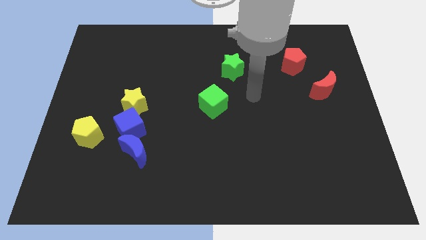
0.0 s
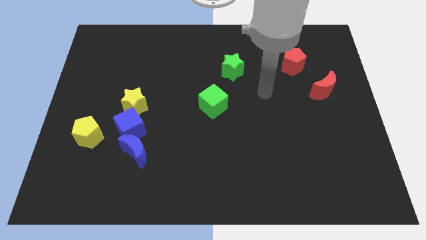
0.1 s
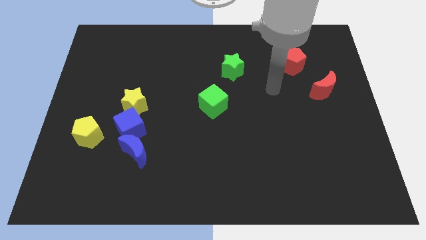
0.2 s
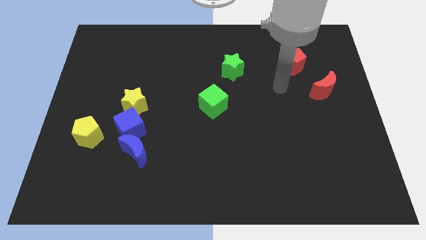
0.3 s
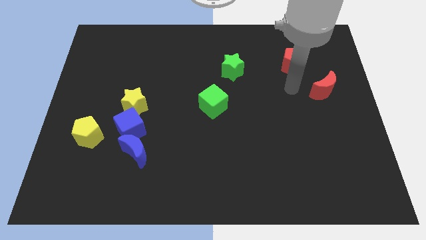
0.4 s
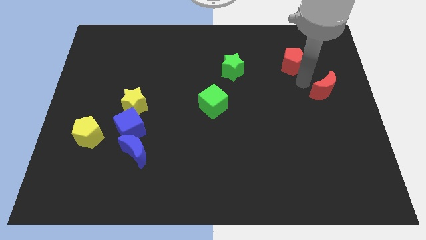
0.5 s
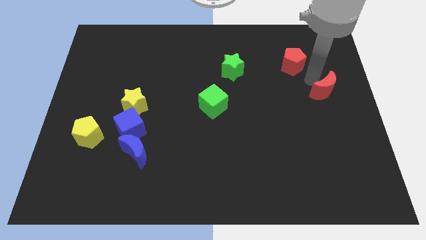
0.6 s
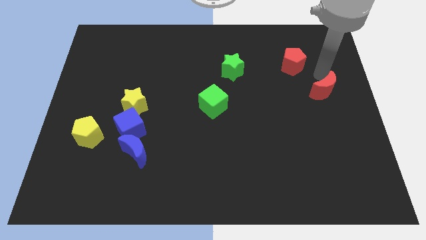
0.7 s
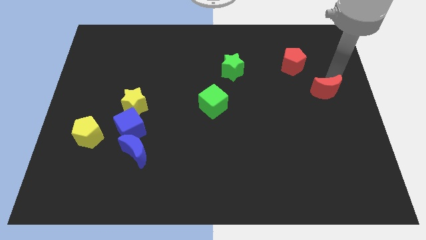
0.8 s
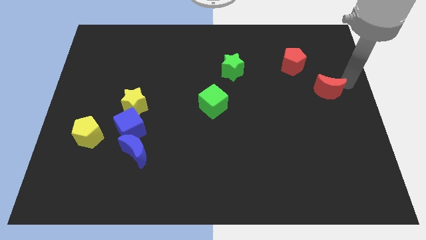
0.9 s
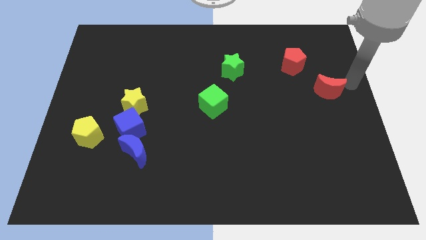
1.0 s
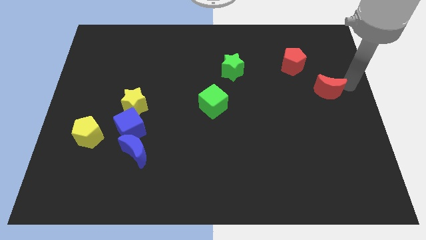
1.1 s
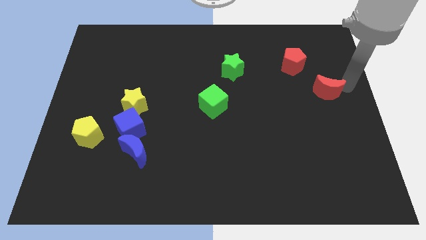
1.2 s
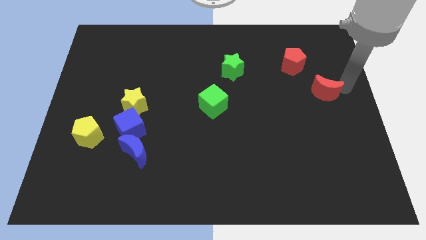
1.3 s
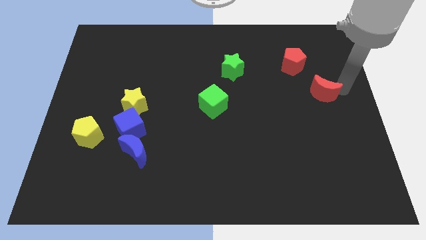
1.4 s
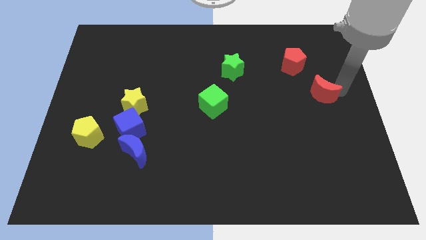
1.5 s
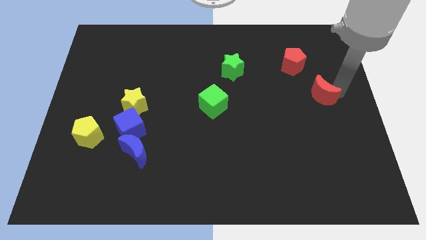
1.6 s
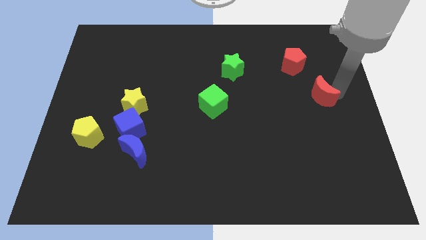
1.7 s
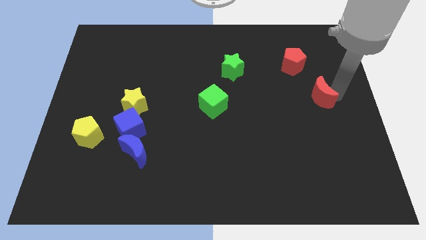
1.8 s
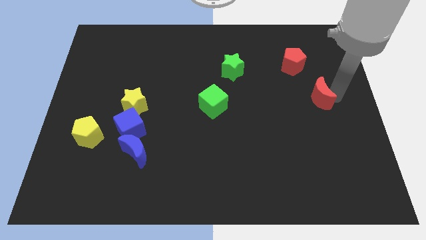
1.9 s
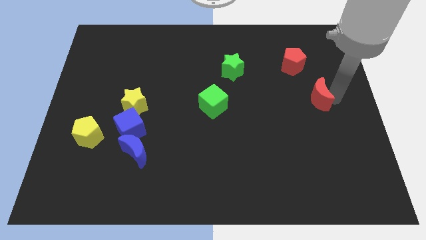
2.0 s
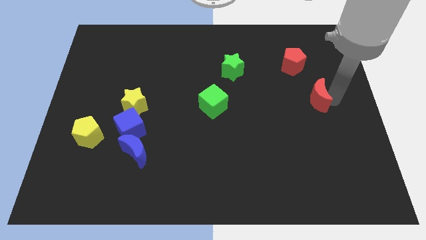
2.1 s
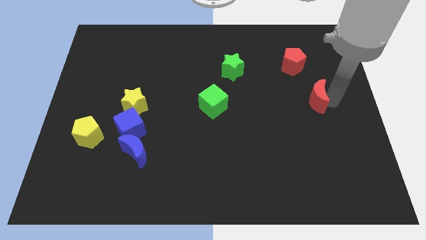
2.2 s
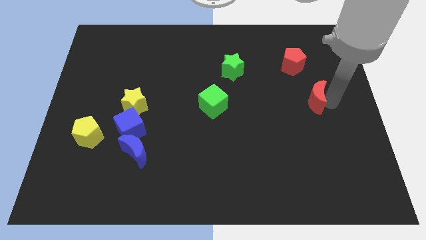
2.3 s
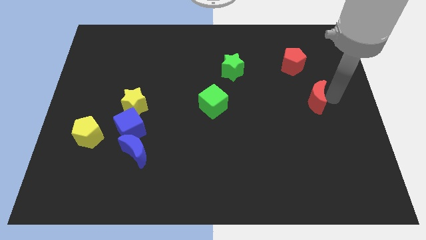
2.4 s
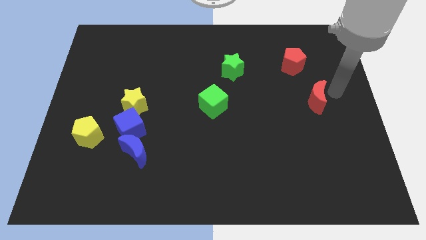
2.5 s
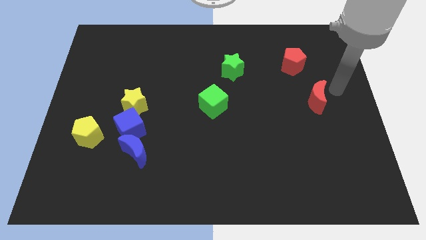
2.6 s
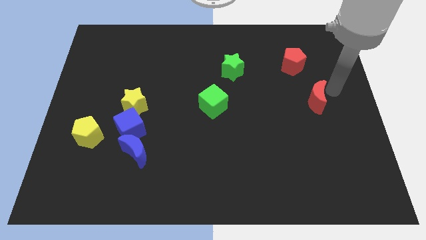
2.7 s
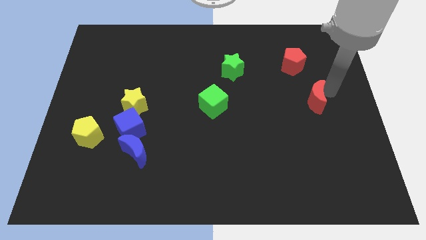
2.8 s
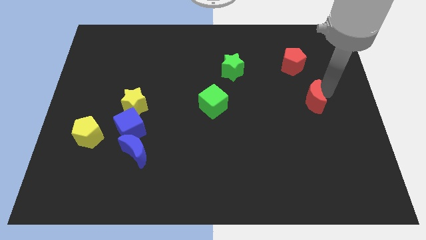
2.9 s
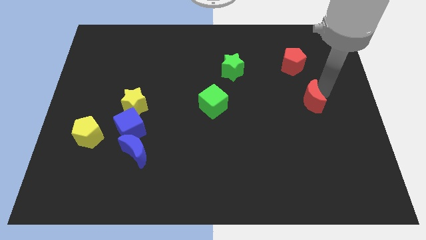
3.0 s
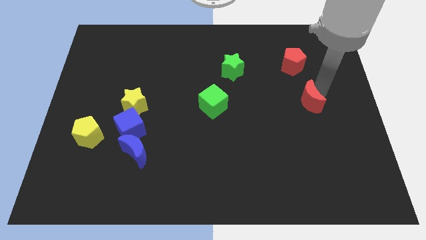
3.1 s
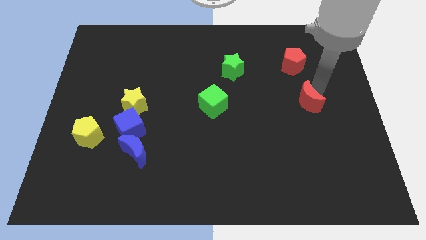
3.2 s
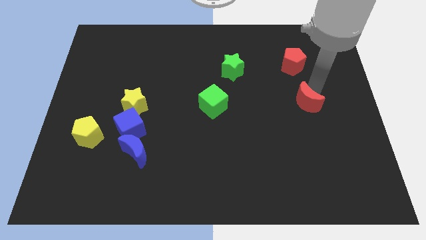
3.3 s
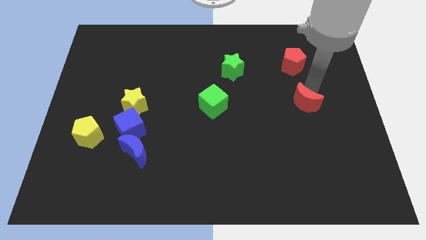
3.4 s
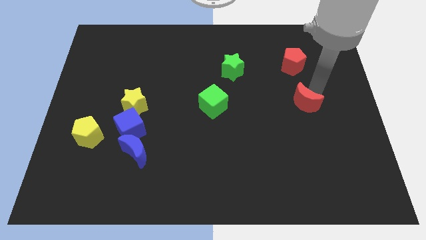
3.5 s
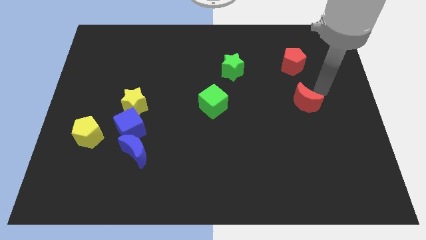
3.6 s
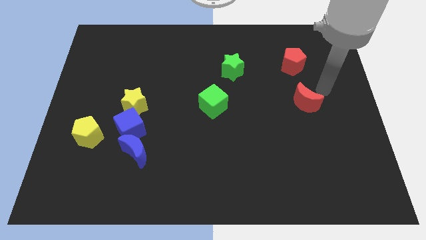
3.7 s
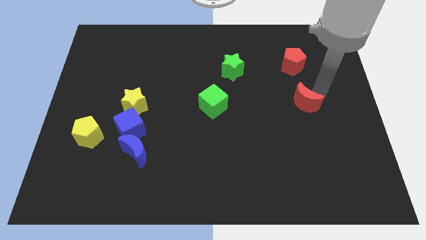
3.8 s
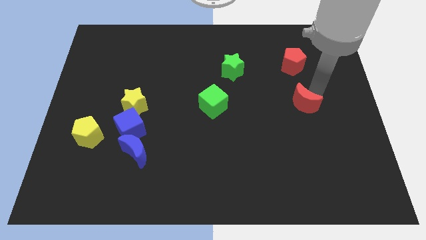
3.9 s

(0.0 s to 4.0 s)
slide the red moon diagonally downwards and left somewhat

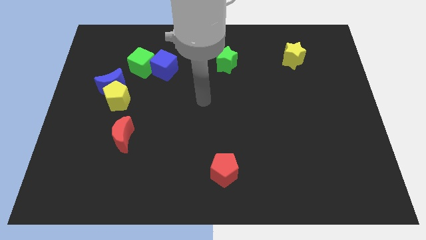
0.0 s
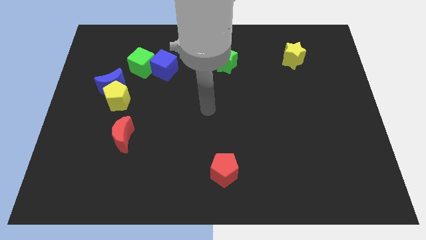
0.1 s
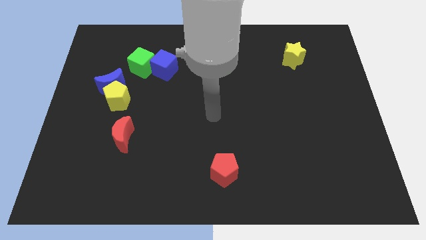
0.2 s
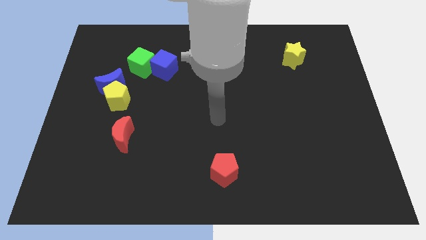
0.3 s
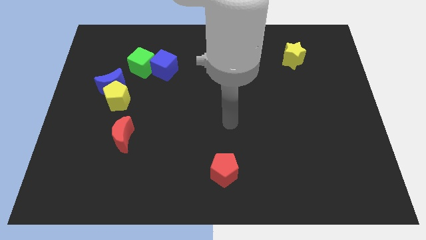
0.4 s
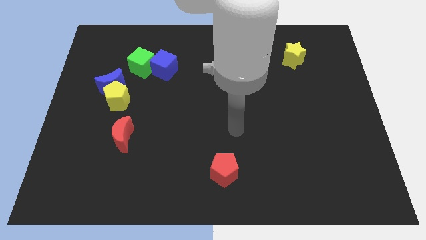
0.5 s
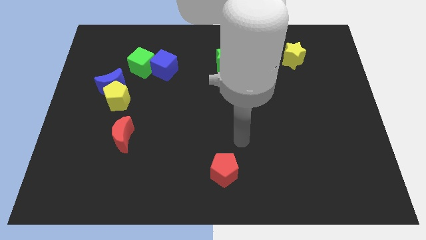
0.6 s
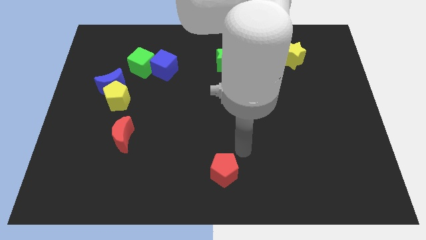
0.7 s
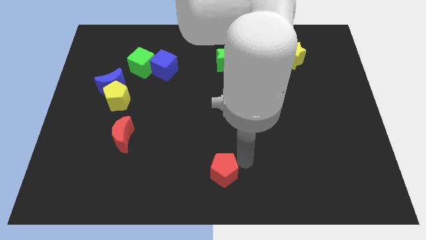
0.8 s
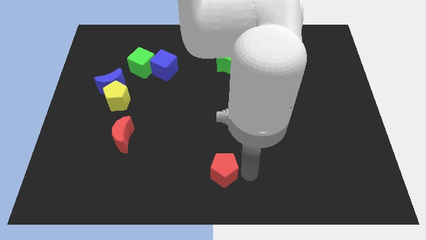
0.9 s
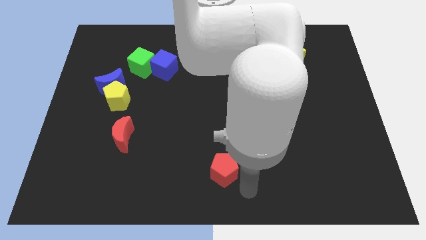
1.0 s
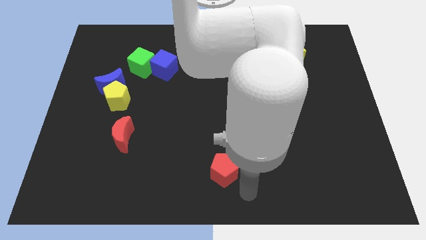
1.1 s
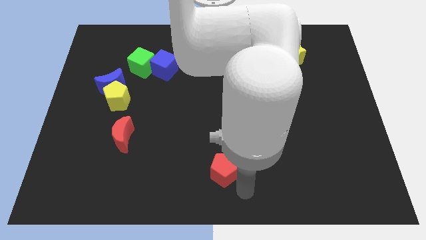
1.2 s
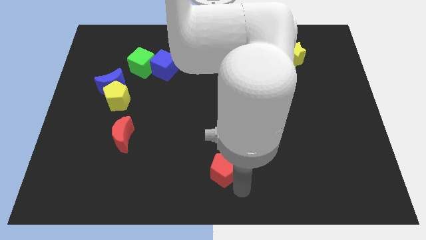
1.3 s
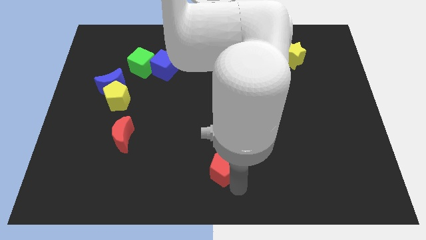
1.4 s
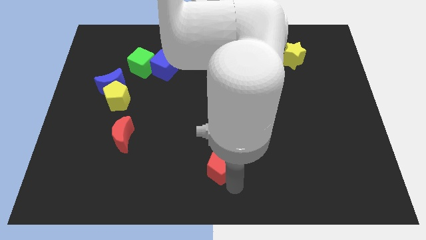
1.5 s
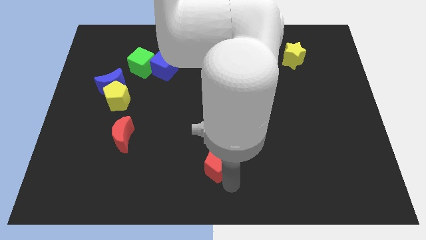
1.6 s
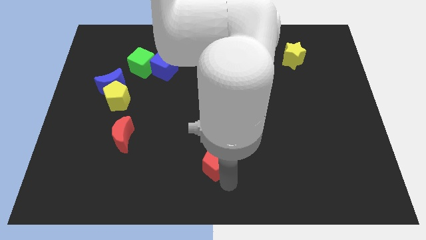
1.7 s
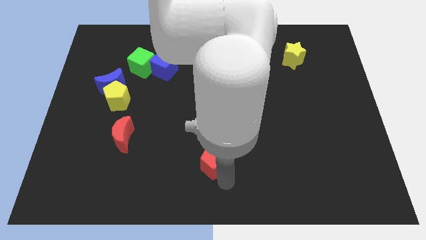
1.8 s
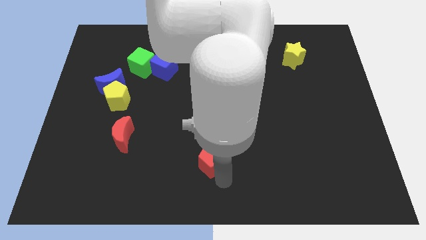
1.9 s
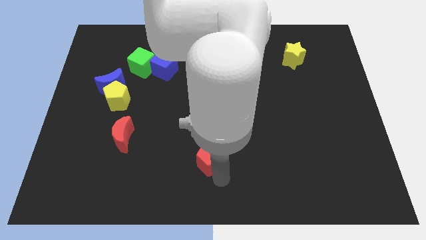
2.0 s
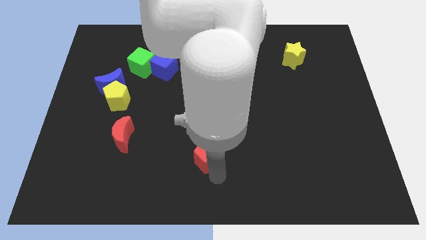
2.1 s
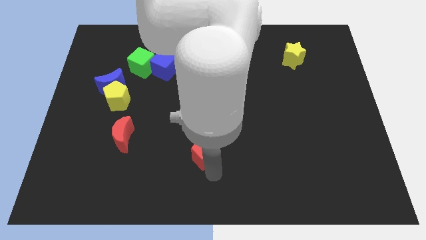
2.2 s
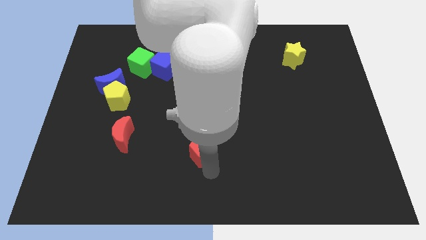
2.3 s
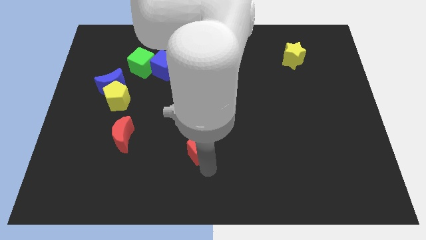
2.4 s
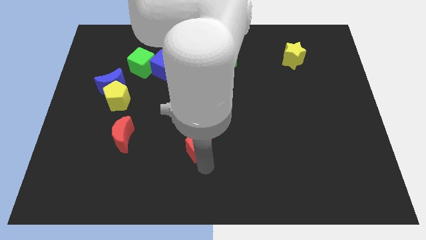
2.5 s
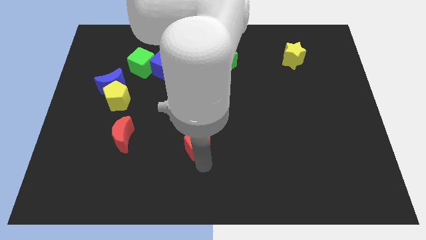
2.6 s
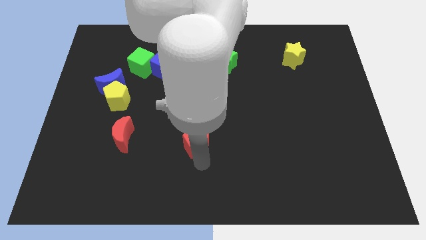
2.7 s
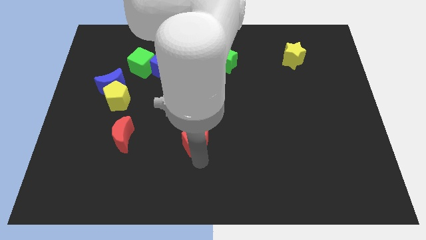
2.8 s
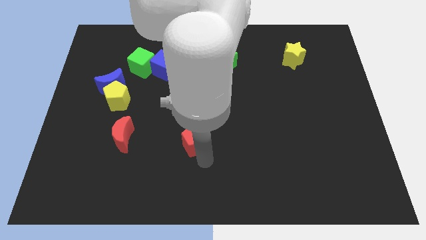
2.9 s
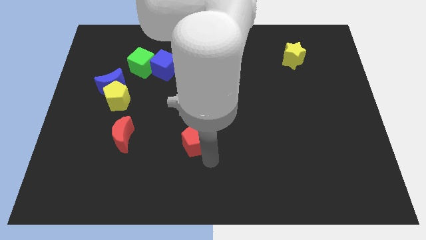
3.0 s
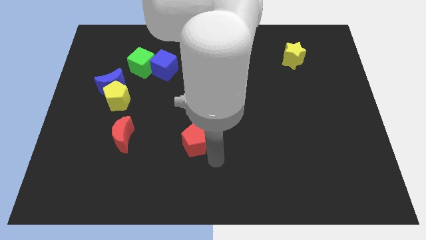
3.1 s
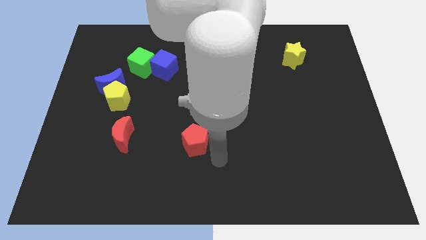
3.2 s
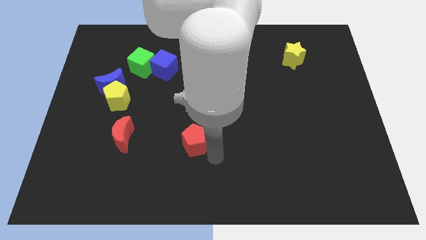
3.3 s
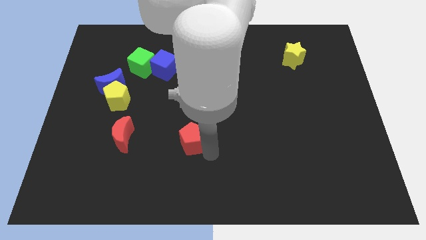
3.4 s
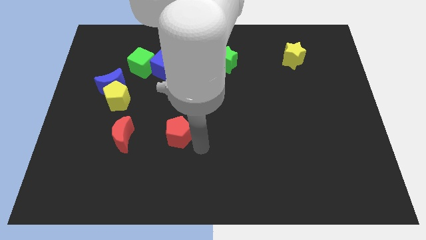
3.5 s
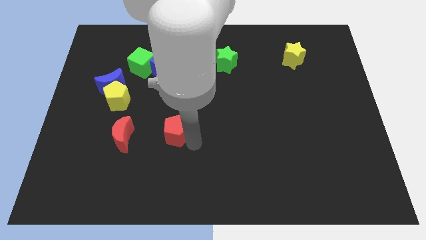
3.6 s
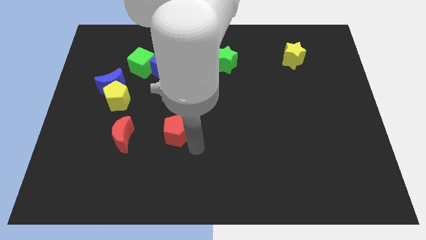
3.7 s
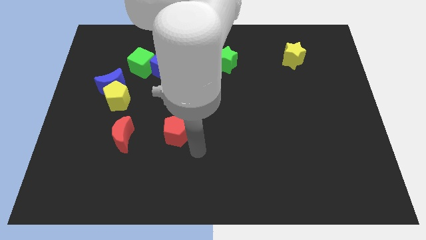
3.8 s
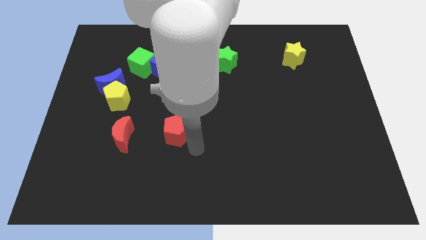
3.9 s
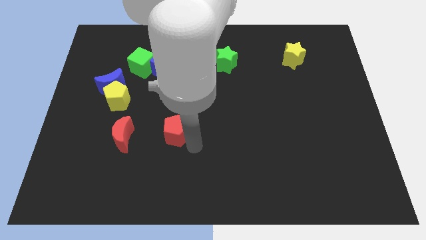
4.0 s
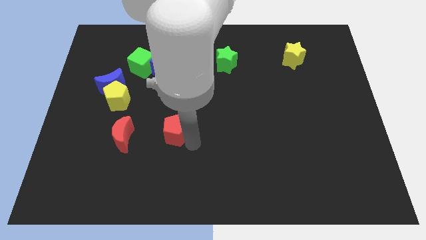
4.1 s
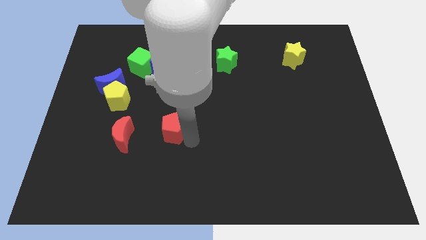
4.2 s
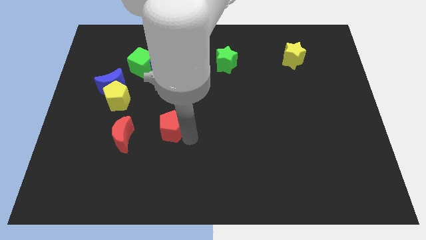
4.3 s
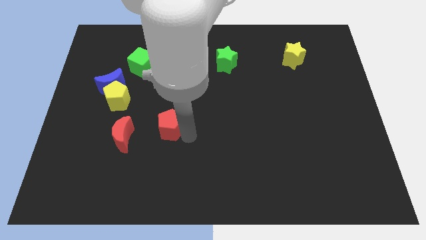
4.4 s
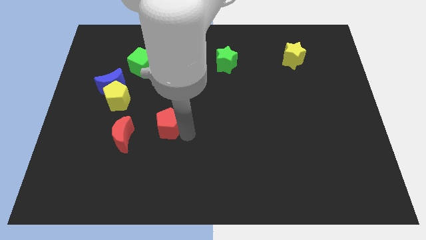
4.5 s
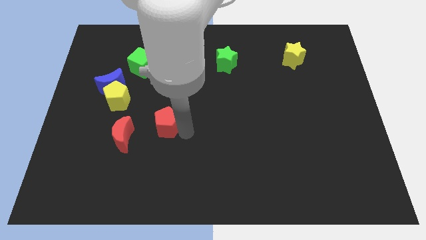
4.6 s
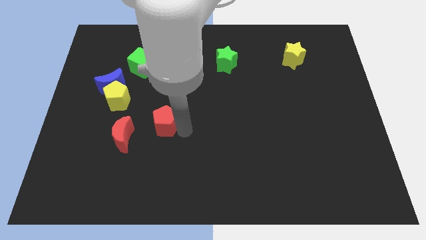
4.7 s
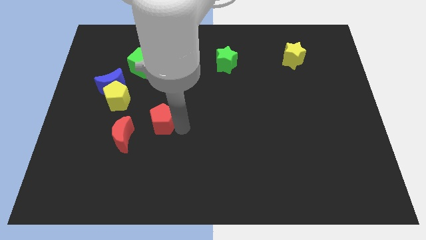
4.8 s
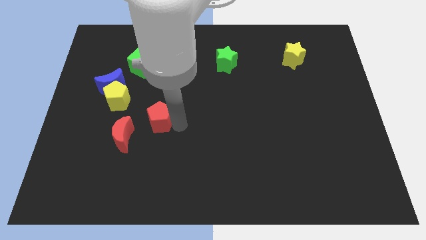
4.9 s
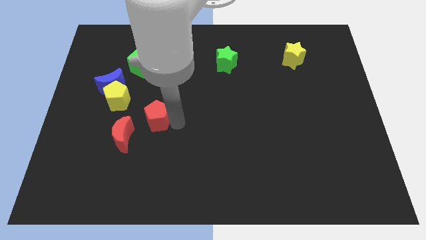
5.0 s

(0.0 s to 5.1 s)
push the red pentagon diagonally upwards and left
